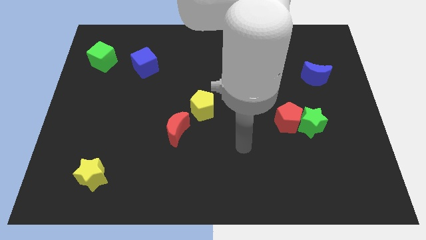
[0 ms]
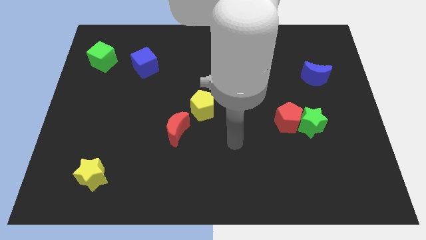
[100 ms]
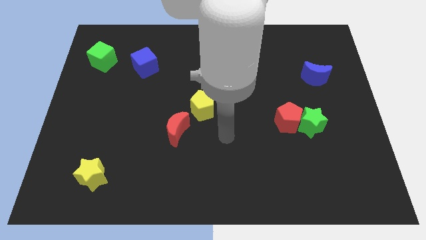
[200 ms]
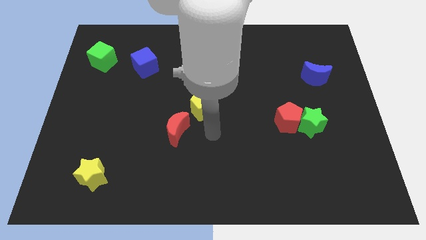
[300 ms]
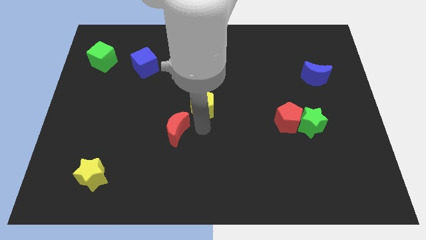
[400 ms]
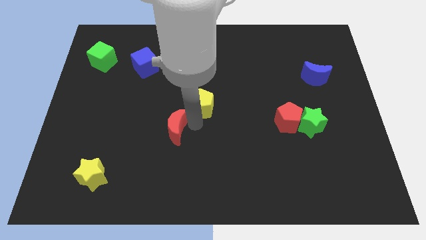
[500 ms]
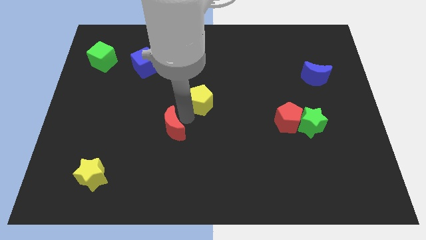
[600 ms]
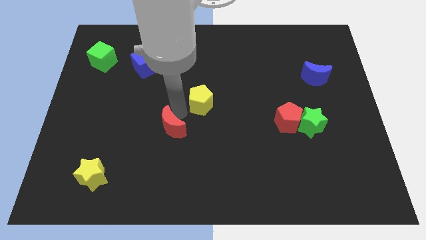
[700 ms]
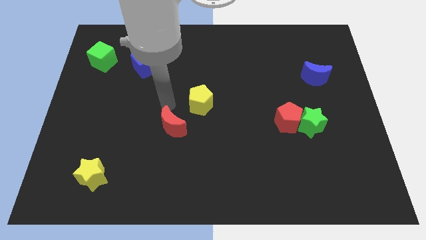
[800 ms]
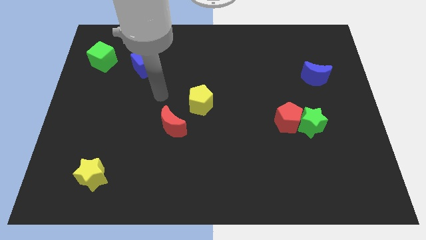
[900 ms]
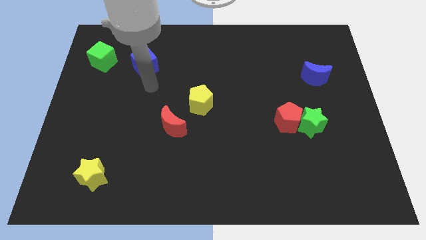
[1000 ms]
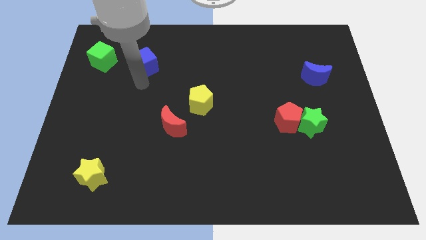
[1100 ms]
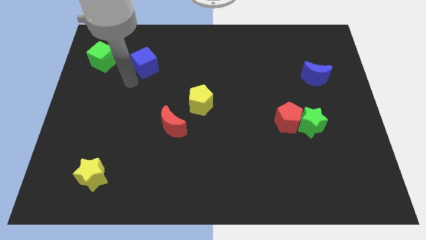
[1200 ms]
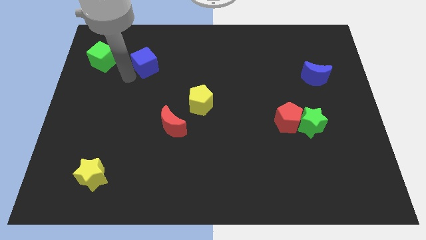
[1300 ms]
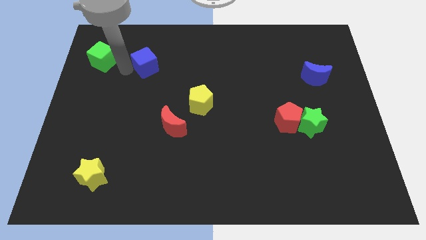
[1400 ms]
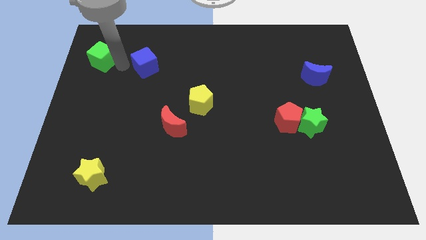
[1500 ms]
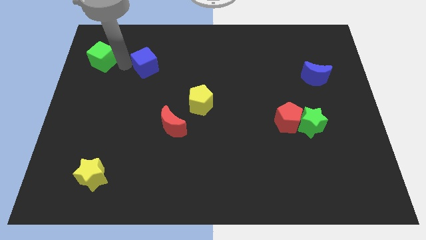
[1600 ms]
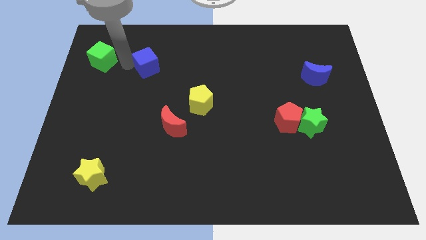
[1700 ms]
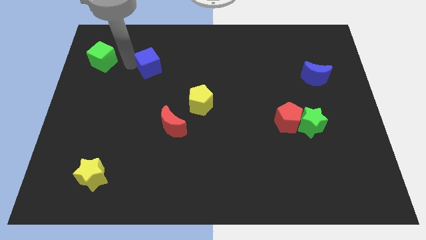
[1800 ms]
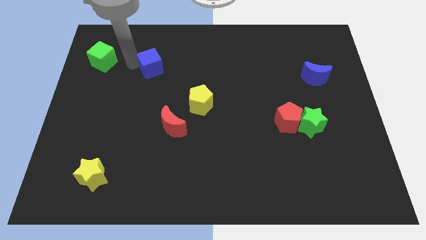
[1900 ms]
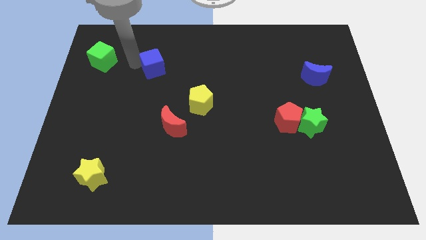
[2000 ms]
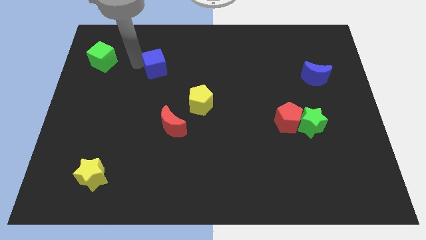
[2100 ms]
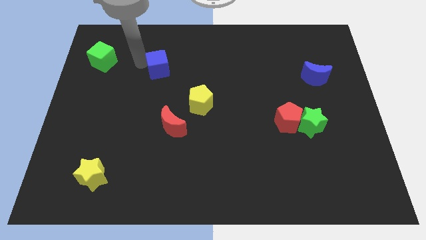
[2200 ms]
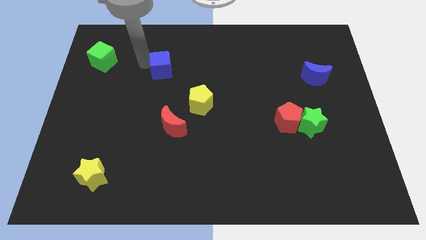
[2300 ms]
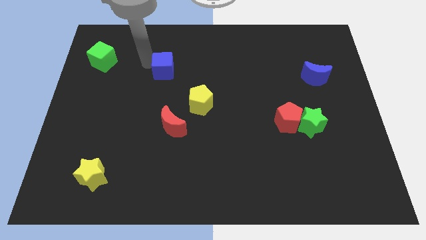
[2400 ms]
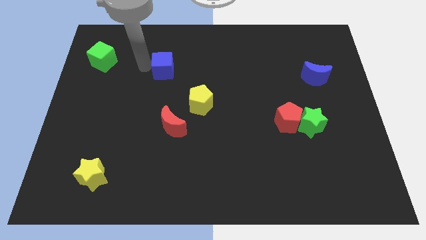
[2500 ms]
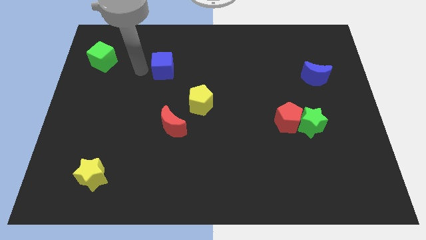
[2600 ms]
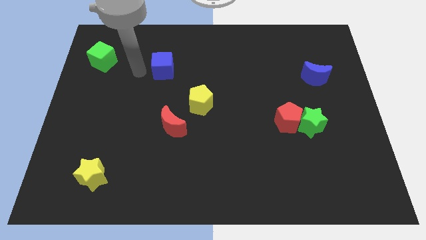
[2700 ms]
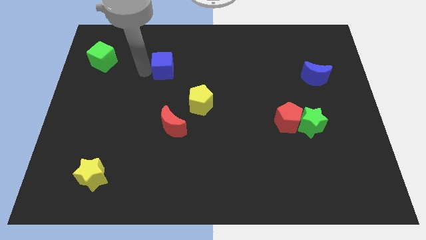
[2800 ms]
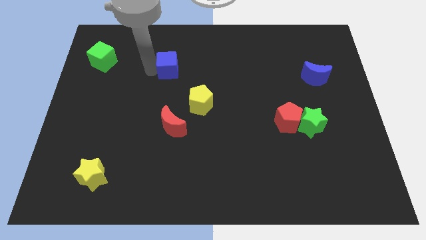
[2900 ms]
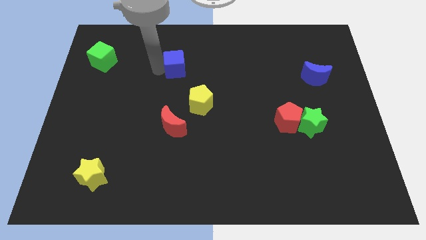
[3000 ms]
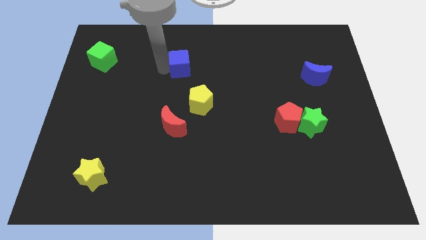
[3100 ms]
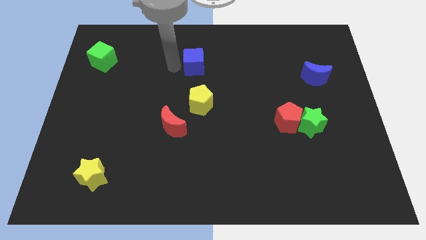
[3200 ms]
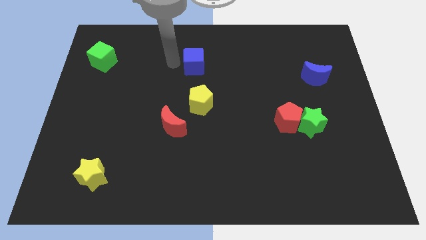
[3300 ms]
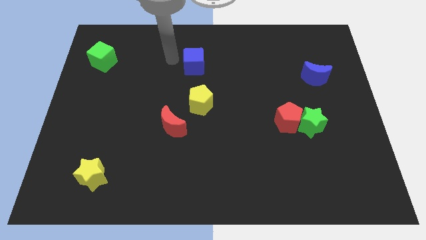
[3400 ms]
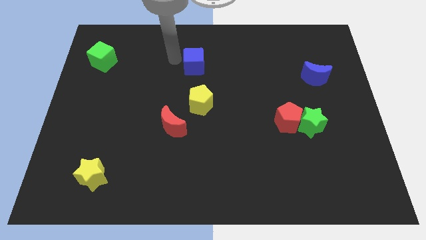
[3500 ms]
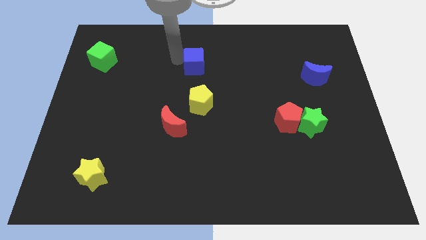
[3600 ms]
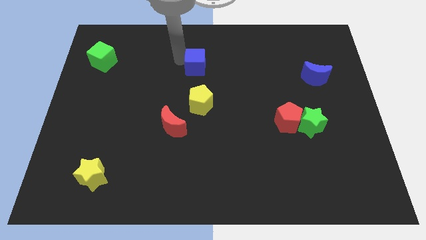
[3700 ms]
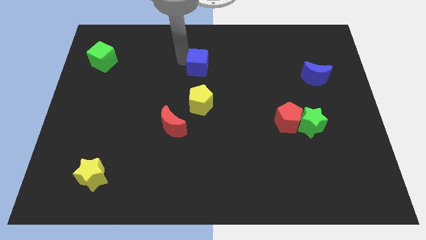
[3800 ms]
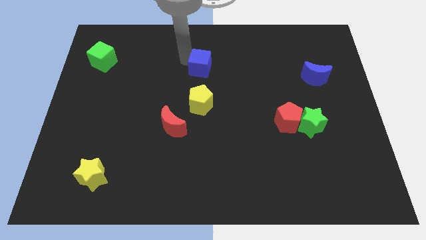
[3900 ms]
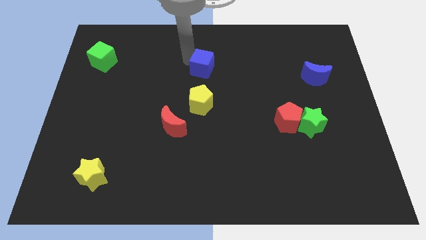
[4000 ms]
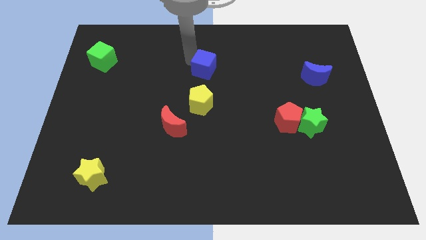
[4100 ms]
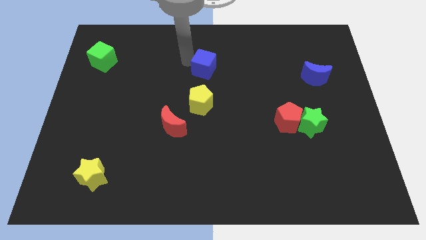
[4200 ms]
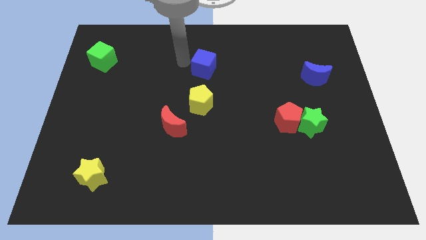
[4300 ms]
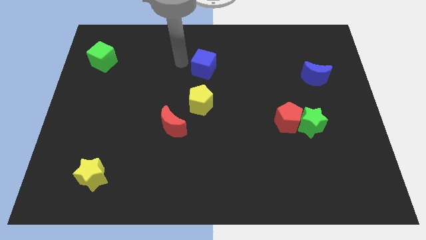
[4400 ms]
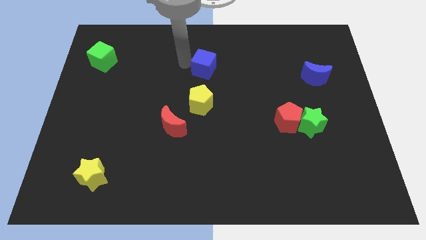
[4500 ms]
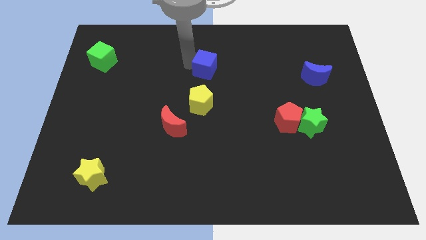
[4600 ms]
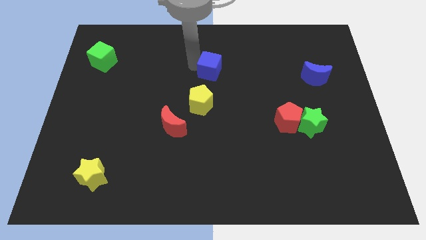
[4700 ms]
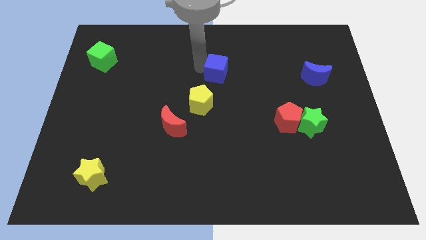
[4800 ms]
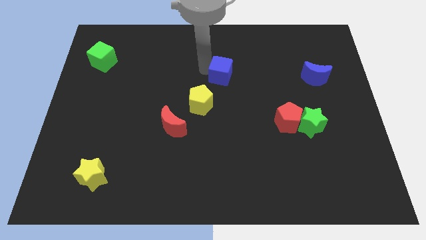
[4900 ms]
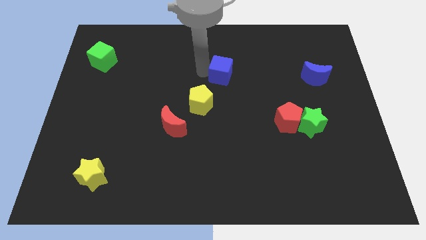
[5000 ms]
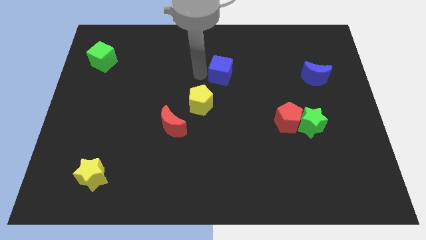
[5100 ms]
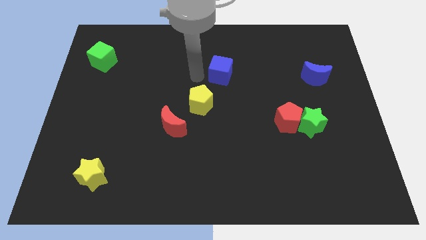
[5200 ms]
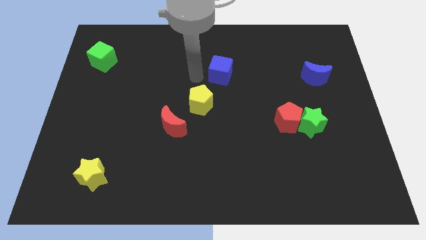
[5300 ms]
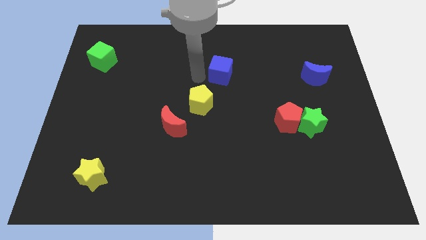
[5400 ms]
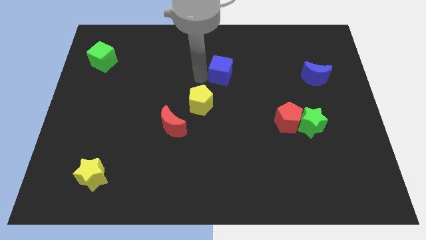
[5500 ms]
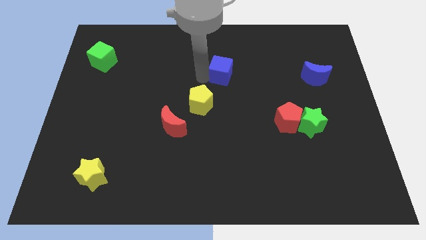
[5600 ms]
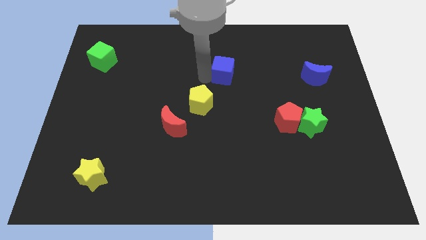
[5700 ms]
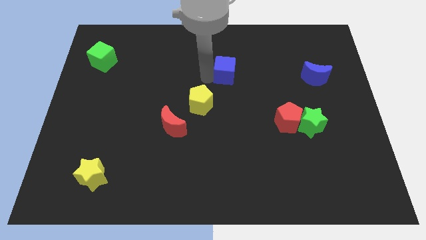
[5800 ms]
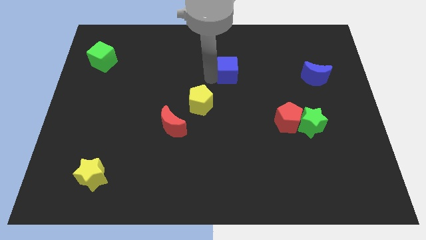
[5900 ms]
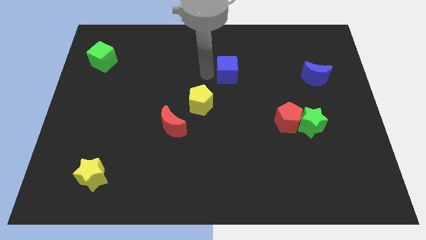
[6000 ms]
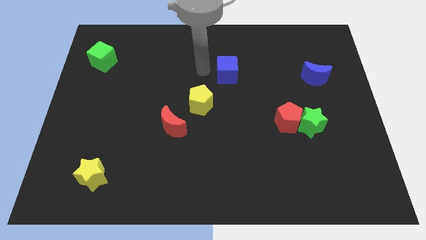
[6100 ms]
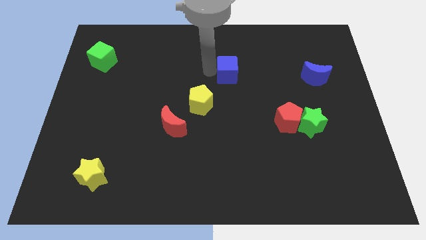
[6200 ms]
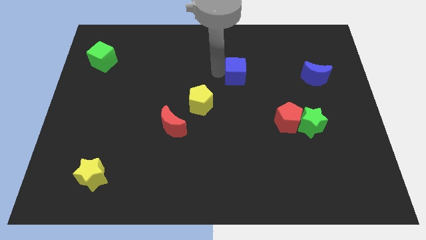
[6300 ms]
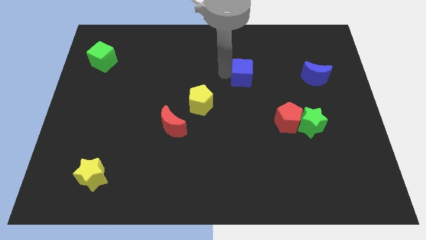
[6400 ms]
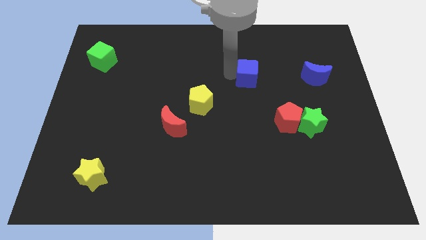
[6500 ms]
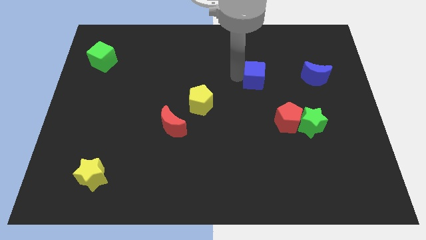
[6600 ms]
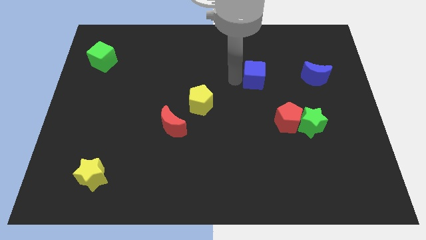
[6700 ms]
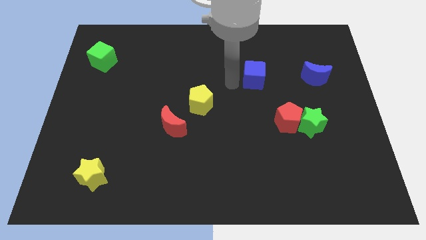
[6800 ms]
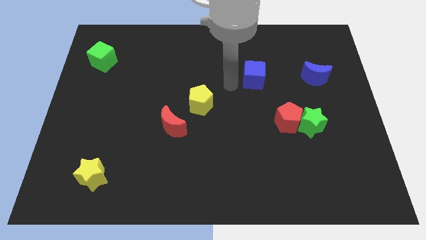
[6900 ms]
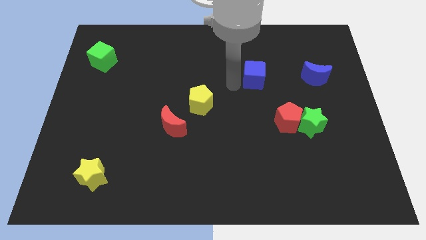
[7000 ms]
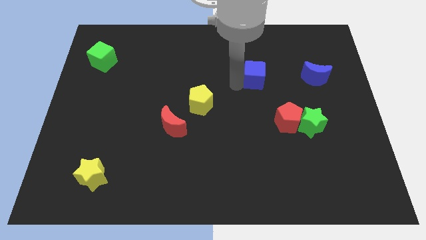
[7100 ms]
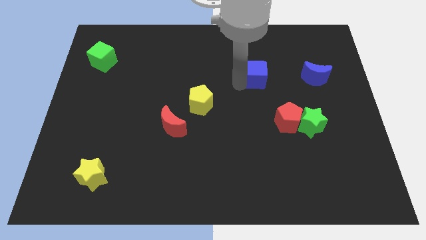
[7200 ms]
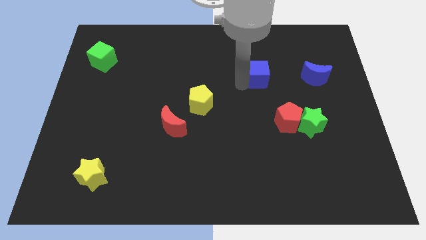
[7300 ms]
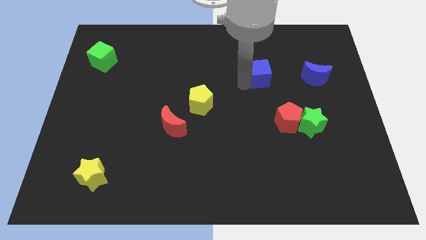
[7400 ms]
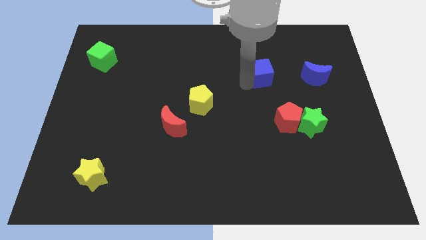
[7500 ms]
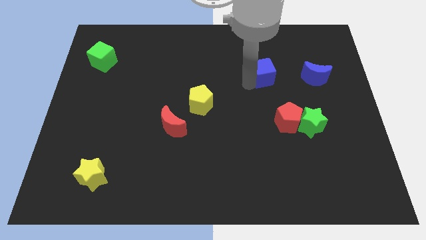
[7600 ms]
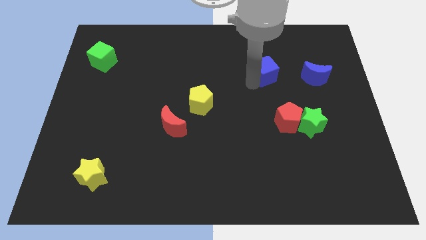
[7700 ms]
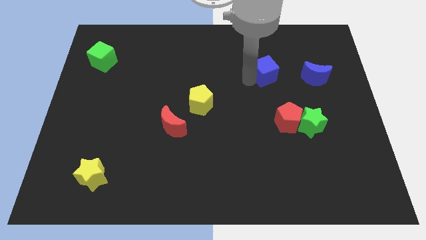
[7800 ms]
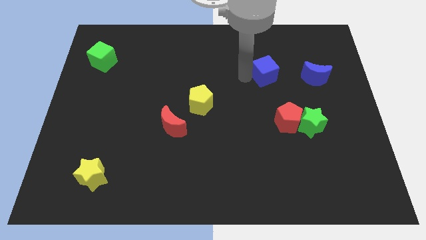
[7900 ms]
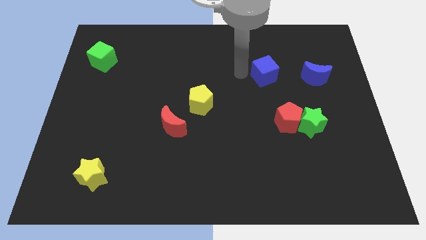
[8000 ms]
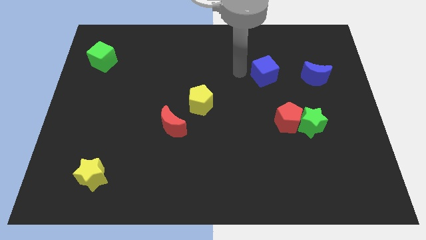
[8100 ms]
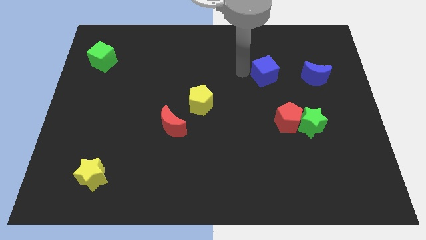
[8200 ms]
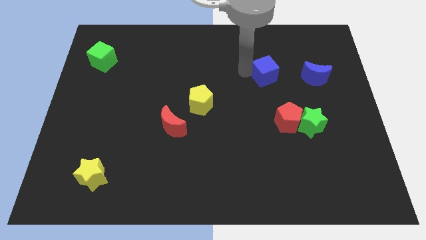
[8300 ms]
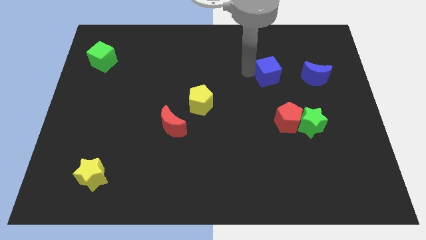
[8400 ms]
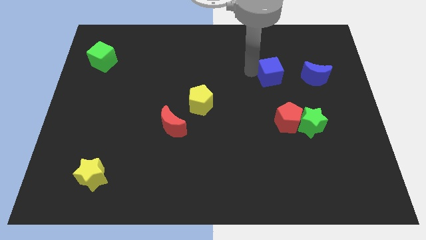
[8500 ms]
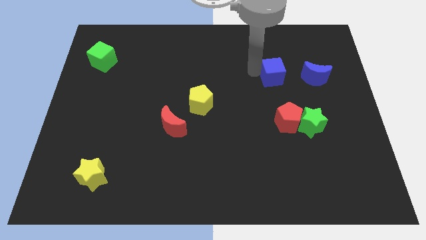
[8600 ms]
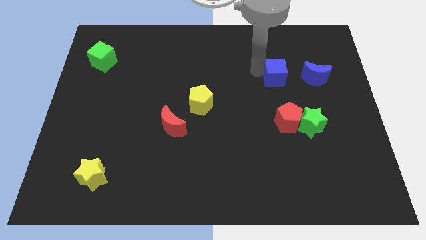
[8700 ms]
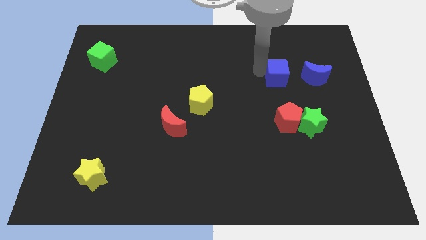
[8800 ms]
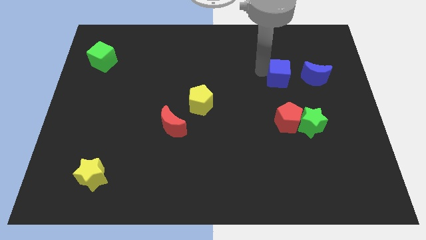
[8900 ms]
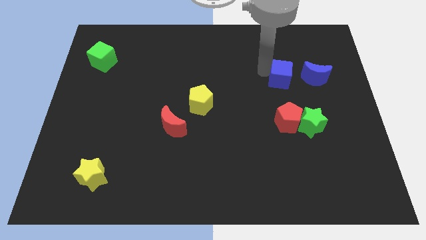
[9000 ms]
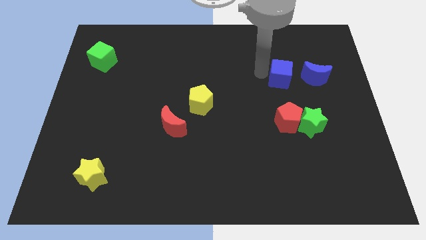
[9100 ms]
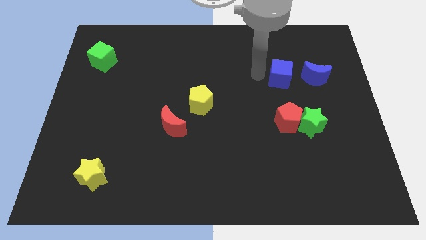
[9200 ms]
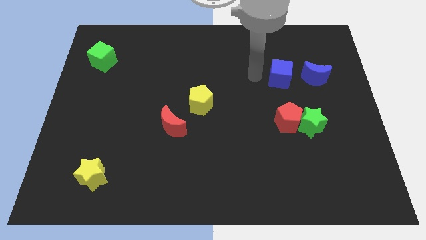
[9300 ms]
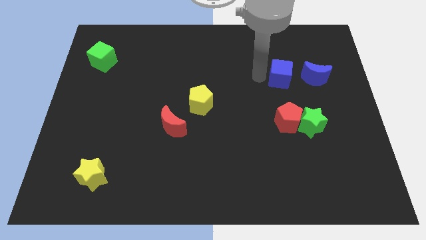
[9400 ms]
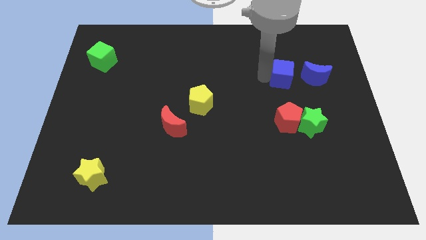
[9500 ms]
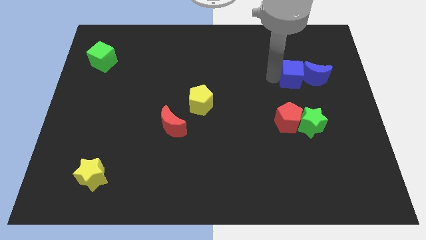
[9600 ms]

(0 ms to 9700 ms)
slide the blue cube next to the blue moon
